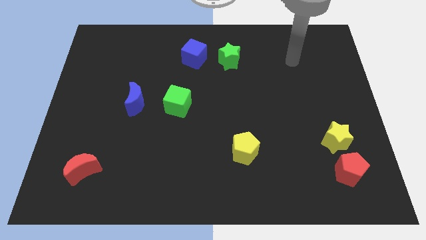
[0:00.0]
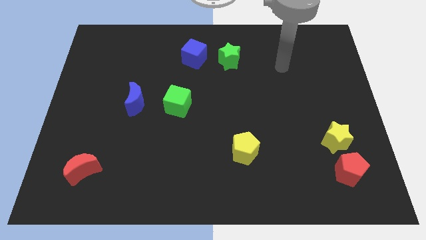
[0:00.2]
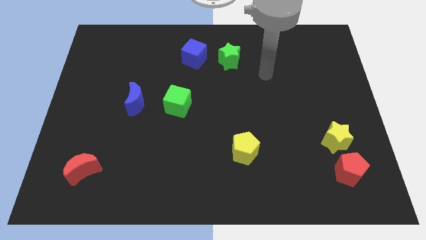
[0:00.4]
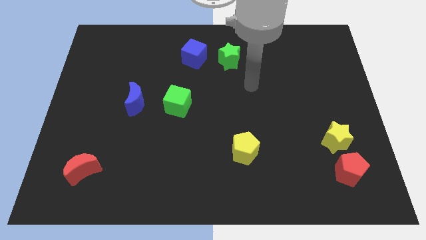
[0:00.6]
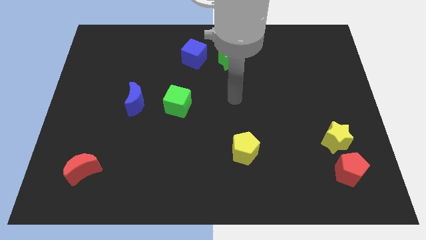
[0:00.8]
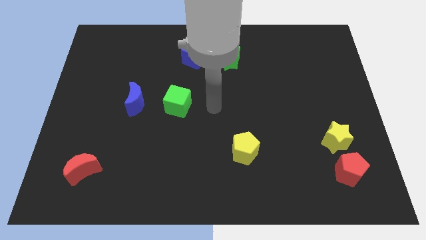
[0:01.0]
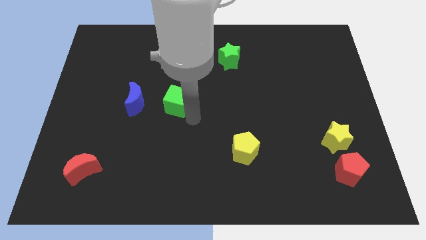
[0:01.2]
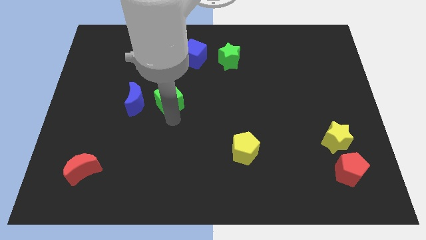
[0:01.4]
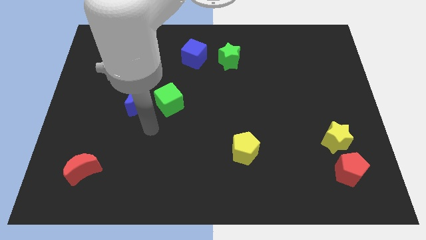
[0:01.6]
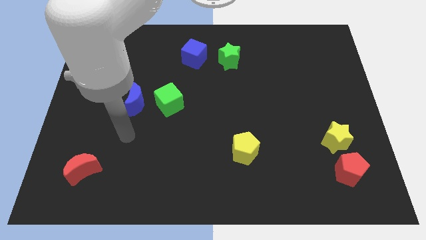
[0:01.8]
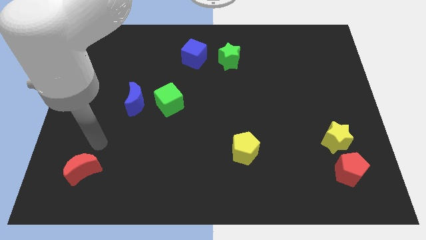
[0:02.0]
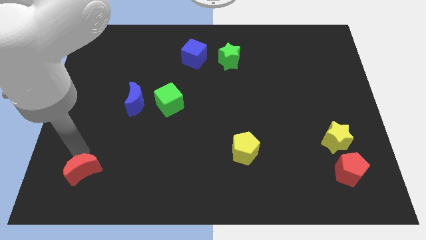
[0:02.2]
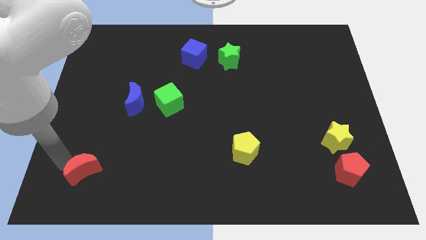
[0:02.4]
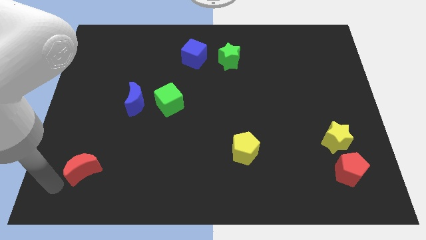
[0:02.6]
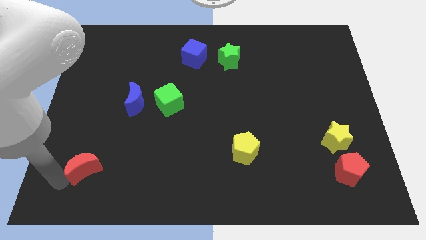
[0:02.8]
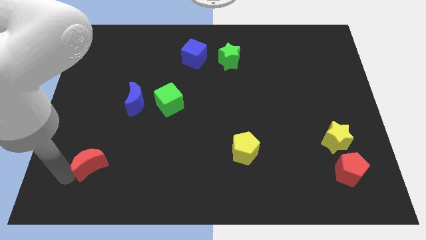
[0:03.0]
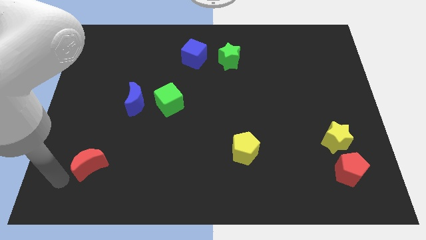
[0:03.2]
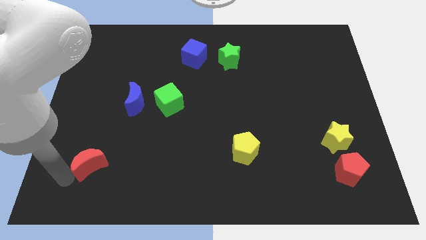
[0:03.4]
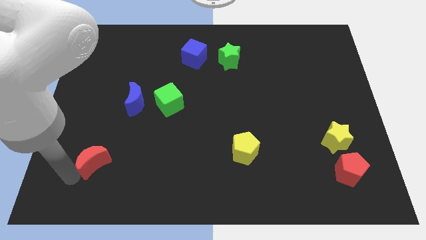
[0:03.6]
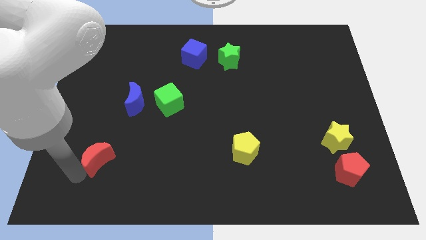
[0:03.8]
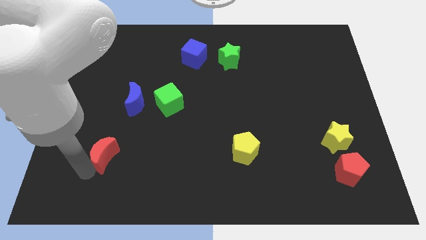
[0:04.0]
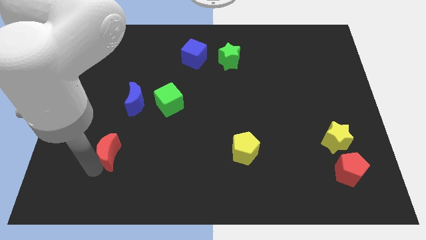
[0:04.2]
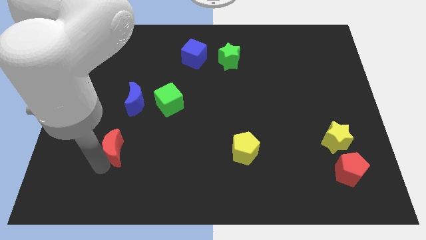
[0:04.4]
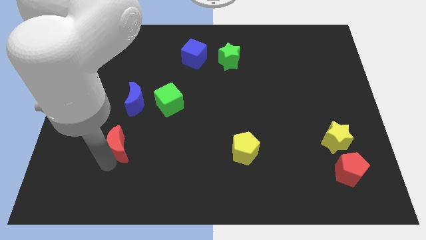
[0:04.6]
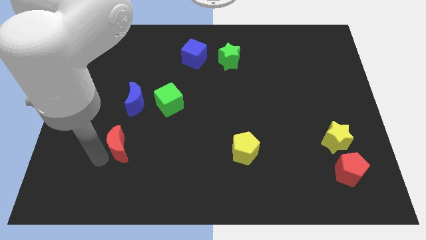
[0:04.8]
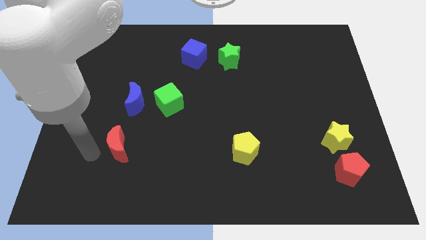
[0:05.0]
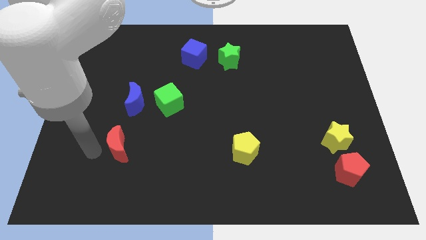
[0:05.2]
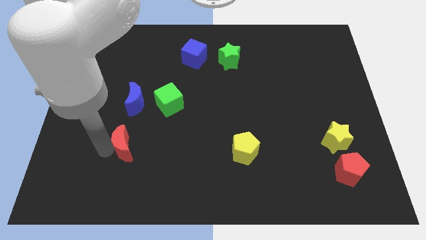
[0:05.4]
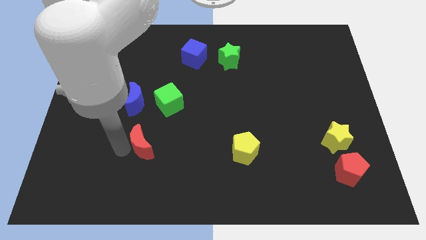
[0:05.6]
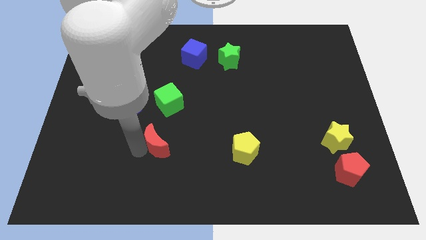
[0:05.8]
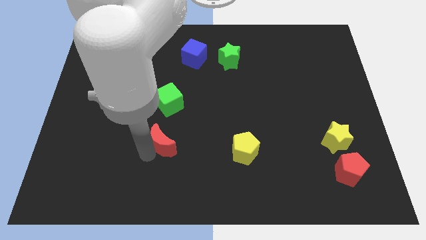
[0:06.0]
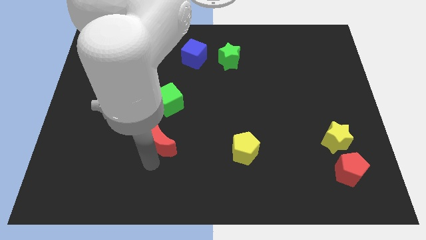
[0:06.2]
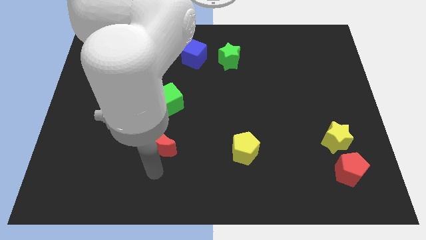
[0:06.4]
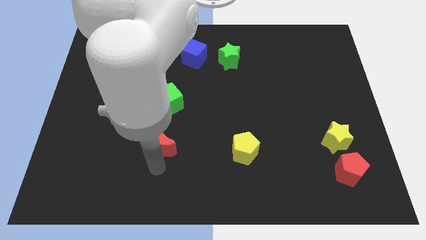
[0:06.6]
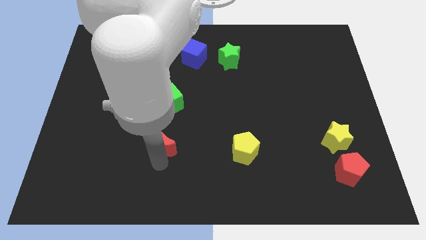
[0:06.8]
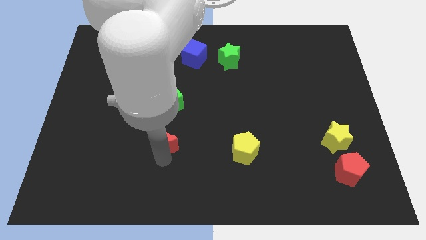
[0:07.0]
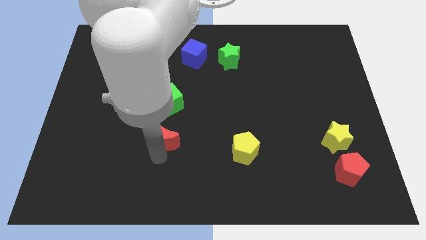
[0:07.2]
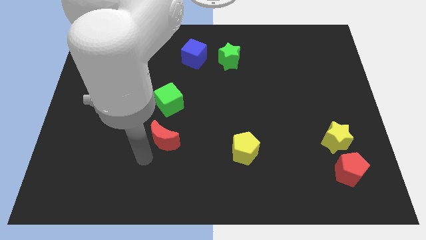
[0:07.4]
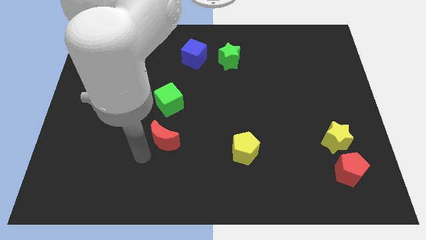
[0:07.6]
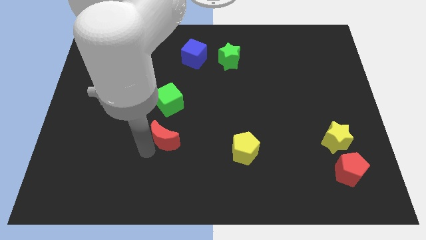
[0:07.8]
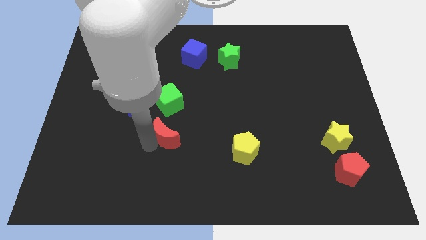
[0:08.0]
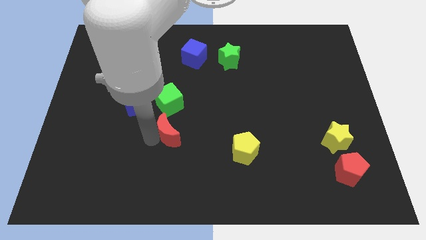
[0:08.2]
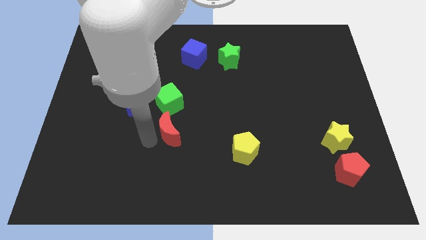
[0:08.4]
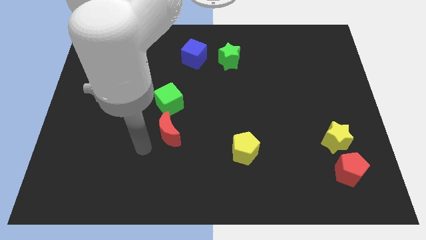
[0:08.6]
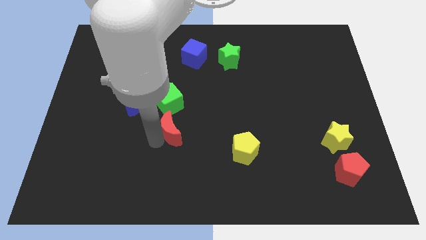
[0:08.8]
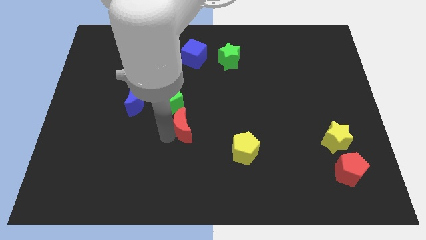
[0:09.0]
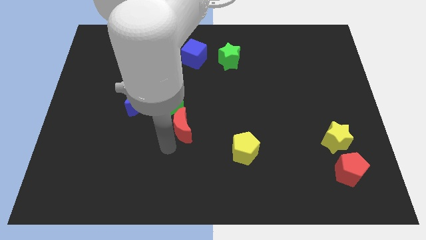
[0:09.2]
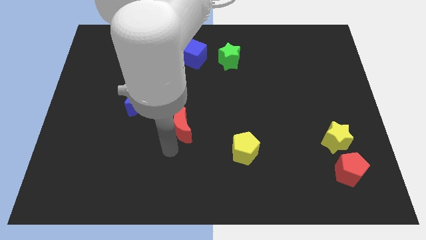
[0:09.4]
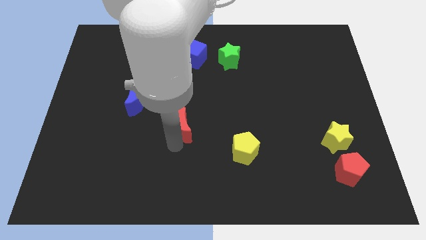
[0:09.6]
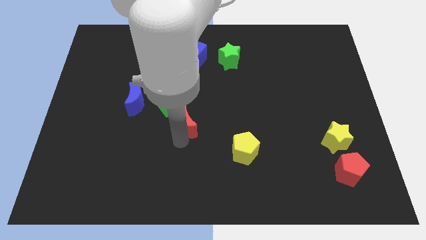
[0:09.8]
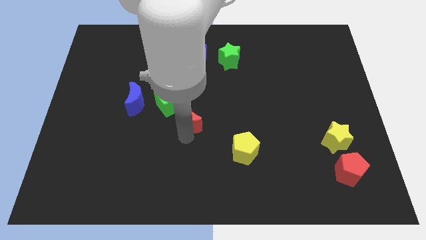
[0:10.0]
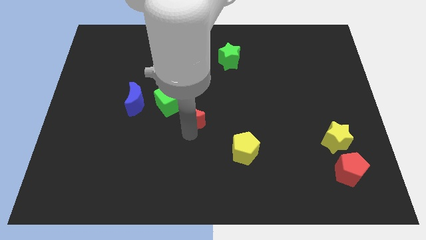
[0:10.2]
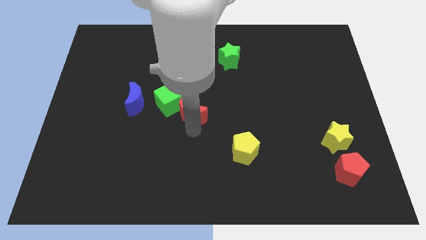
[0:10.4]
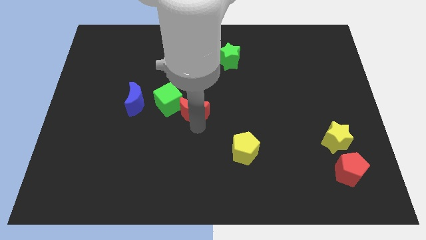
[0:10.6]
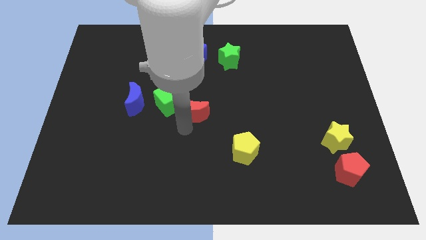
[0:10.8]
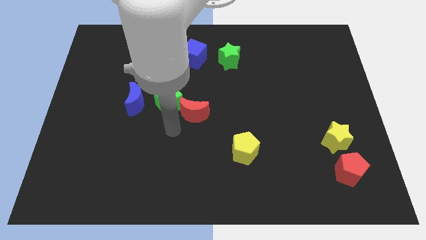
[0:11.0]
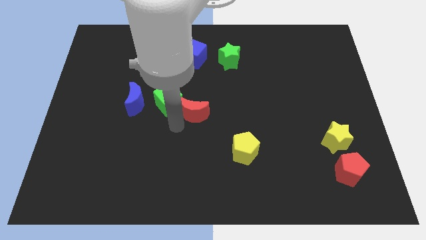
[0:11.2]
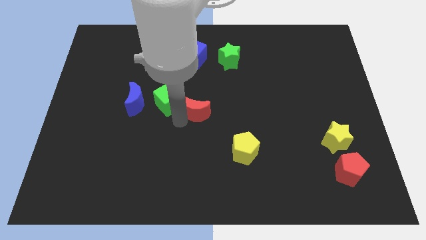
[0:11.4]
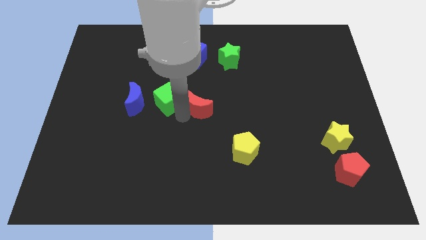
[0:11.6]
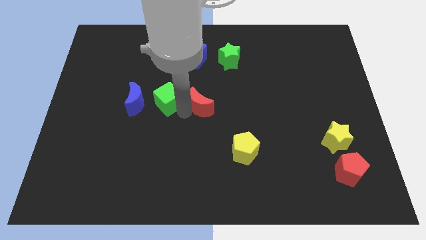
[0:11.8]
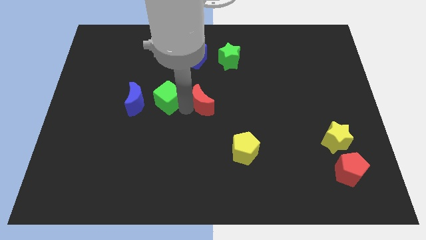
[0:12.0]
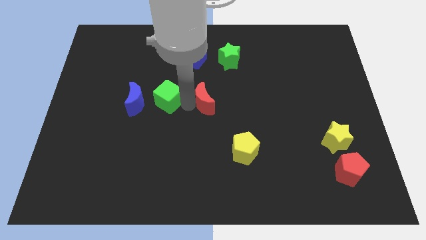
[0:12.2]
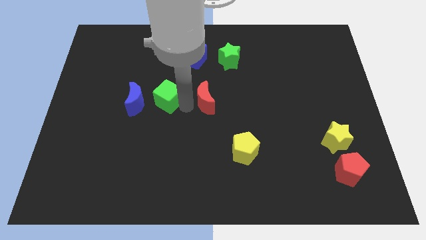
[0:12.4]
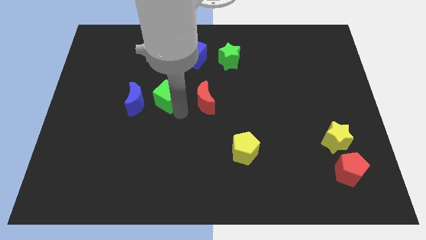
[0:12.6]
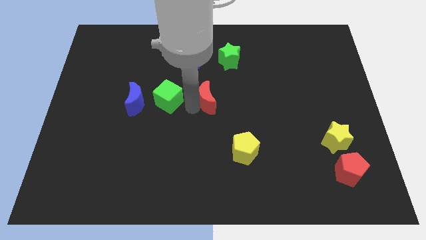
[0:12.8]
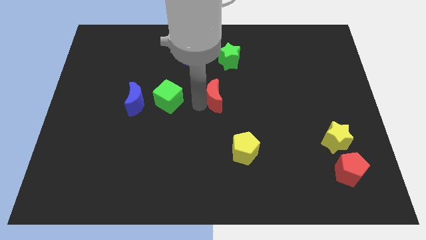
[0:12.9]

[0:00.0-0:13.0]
push the red moon to the bottom side of the green star
